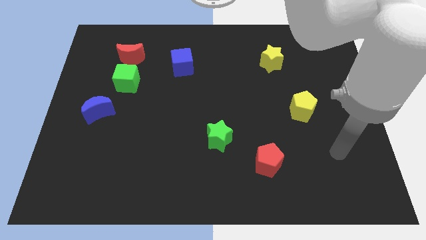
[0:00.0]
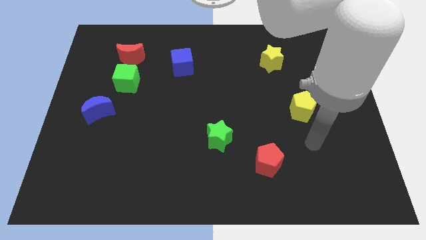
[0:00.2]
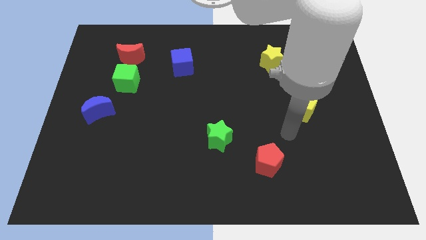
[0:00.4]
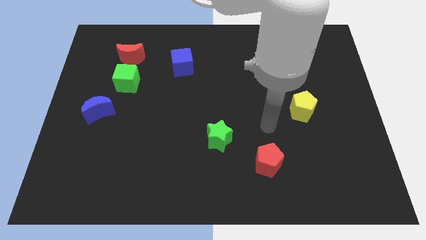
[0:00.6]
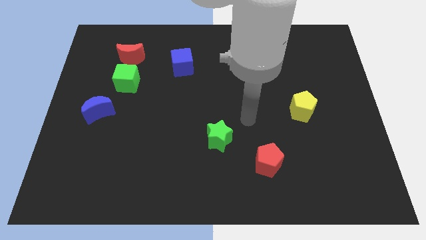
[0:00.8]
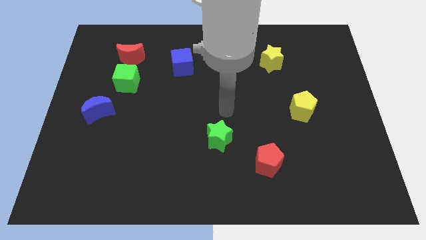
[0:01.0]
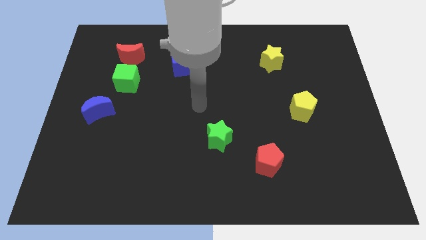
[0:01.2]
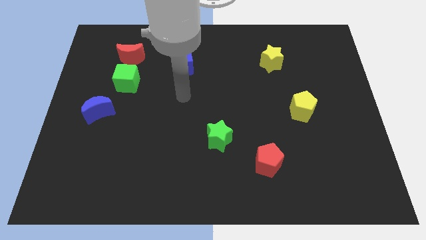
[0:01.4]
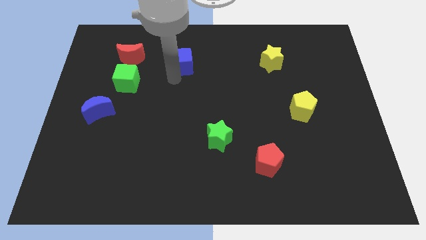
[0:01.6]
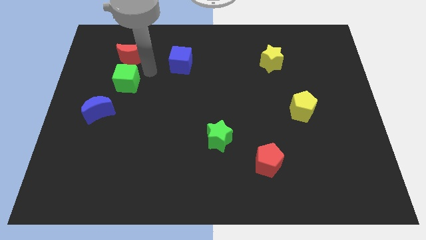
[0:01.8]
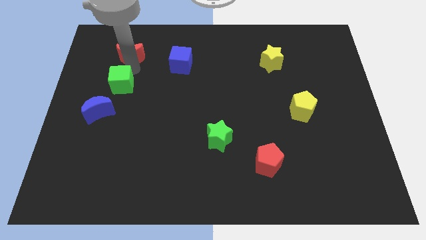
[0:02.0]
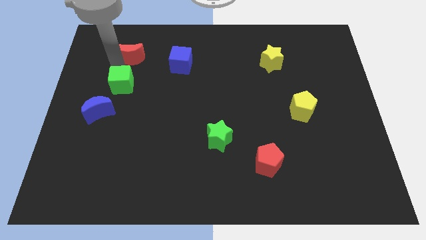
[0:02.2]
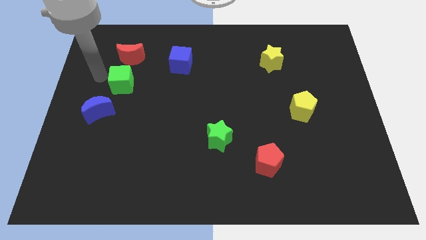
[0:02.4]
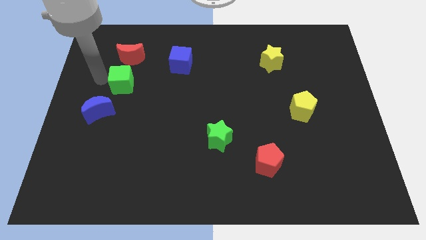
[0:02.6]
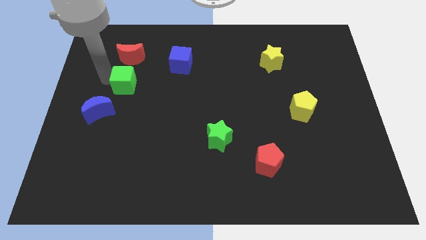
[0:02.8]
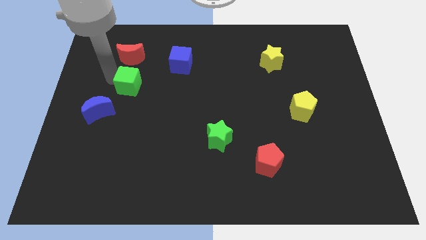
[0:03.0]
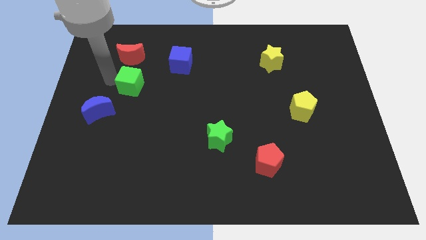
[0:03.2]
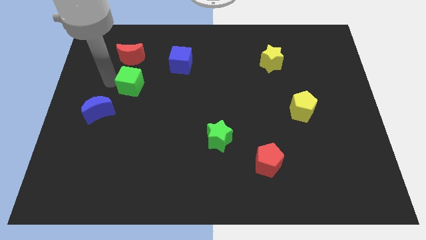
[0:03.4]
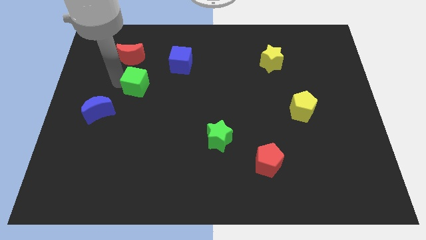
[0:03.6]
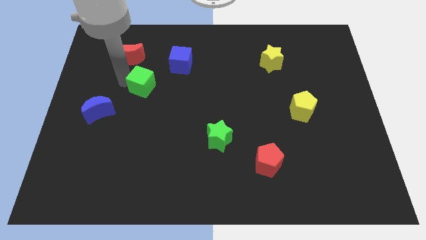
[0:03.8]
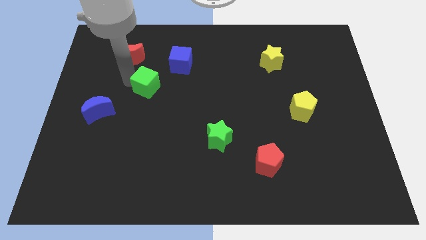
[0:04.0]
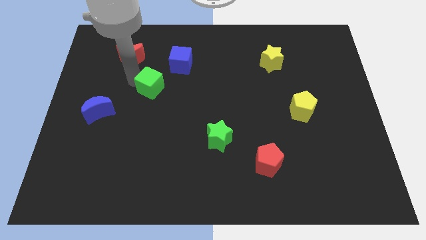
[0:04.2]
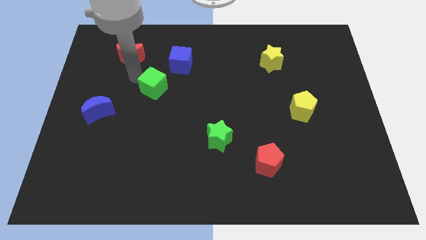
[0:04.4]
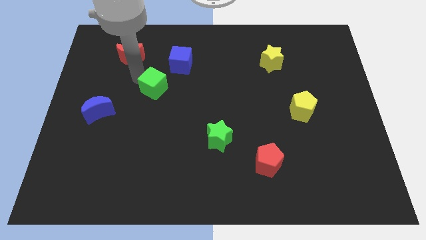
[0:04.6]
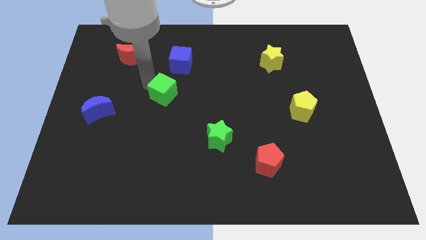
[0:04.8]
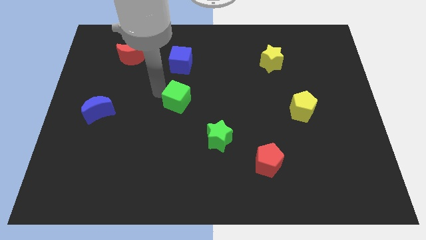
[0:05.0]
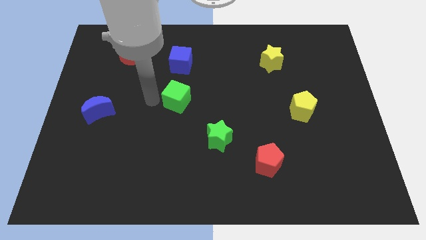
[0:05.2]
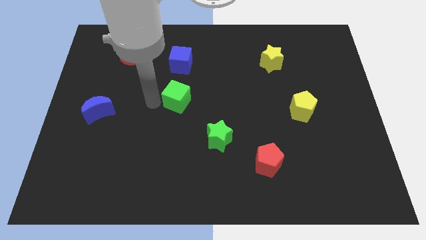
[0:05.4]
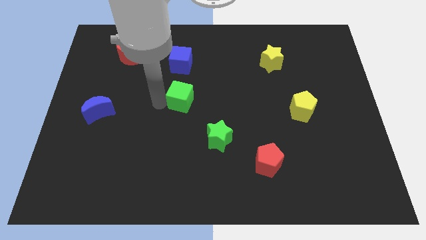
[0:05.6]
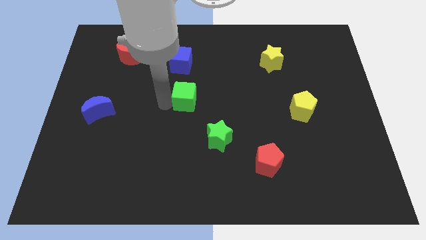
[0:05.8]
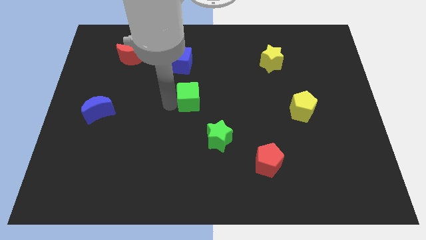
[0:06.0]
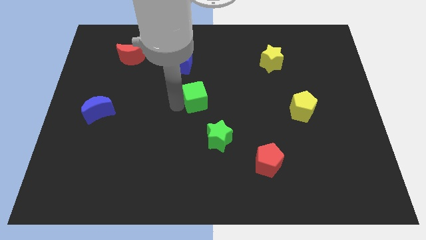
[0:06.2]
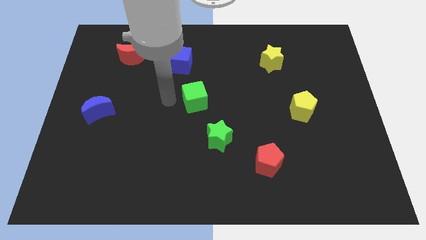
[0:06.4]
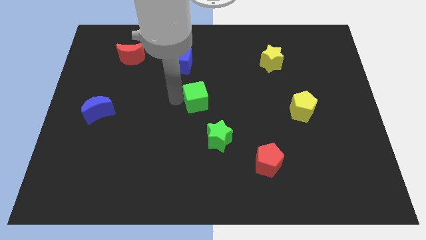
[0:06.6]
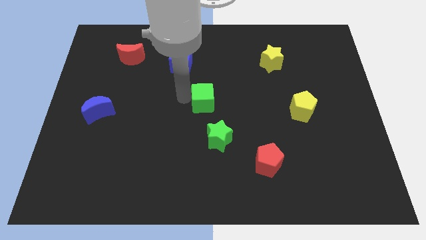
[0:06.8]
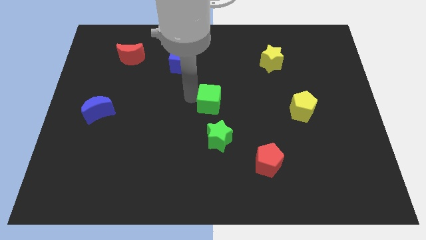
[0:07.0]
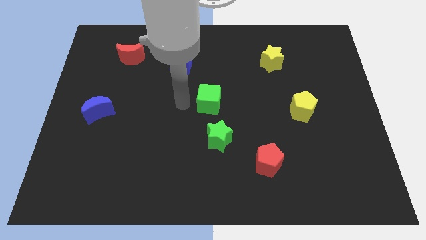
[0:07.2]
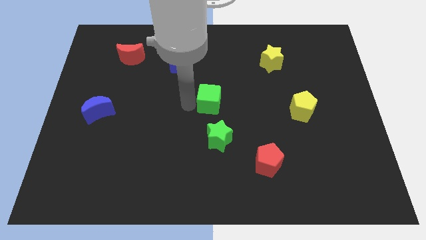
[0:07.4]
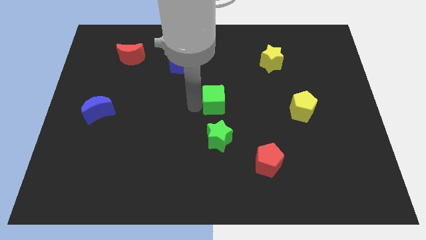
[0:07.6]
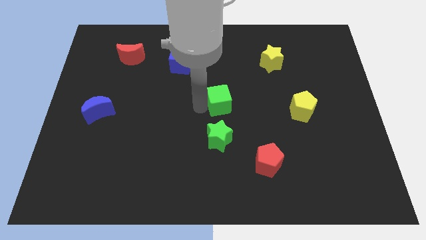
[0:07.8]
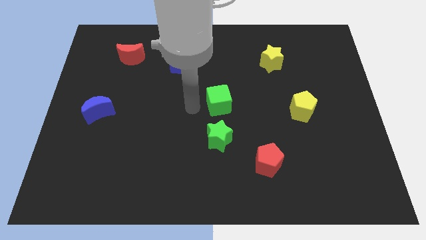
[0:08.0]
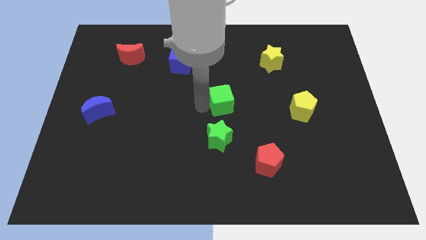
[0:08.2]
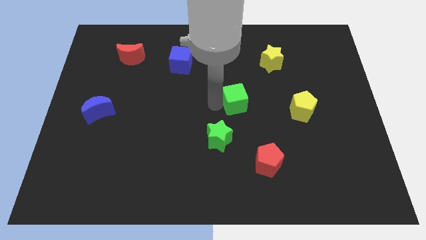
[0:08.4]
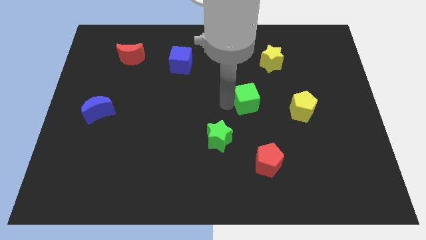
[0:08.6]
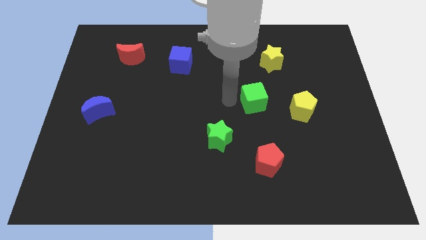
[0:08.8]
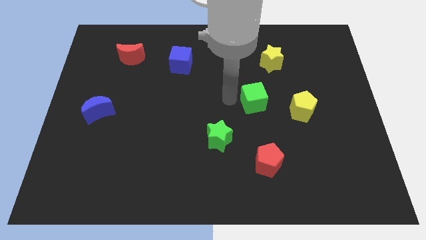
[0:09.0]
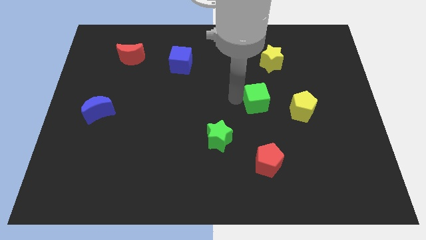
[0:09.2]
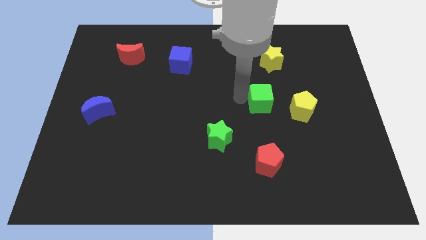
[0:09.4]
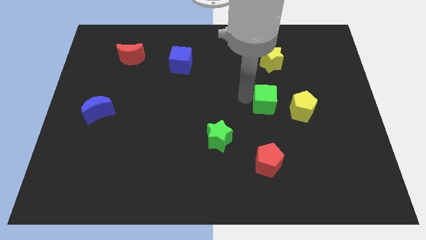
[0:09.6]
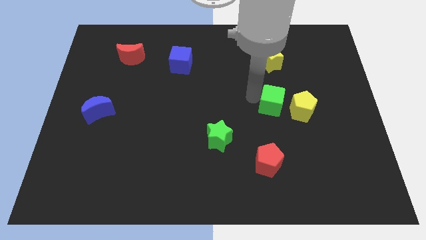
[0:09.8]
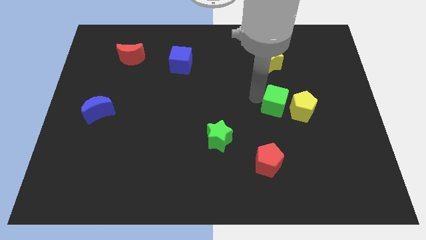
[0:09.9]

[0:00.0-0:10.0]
slide the green cube next to the yellow pentagon

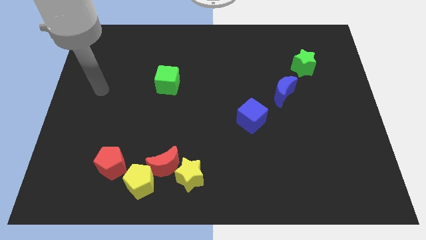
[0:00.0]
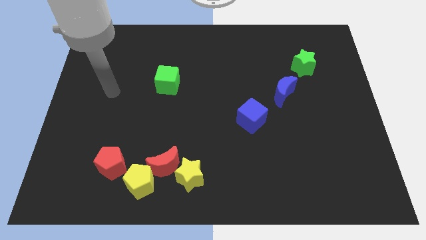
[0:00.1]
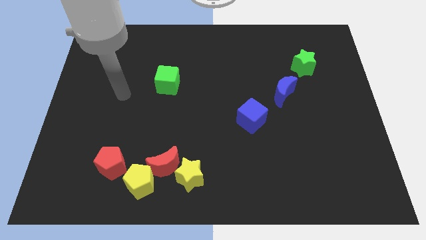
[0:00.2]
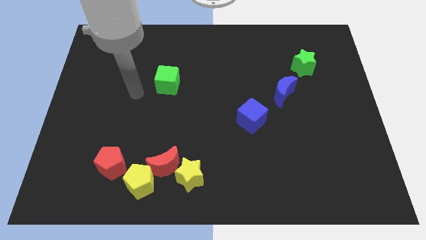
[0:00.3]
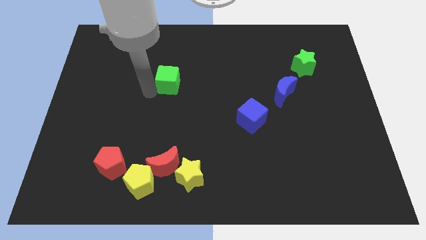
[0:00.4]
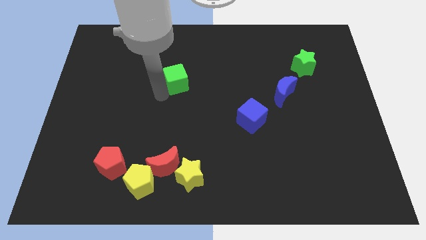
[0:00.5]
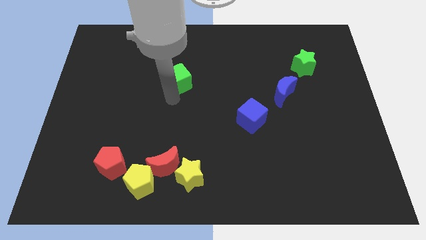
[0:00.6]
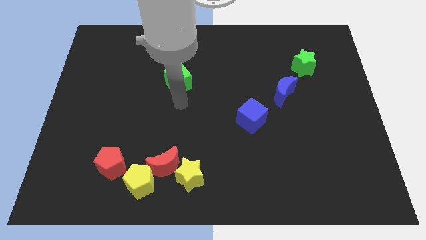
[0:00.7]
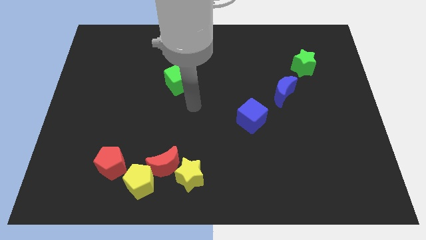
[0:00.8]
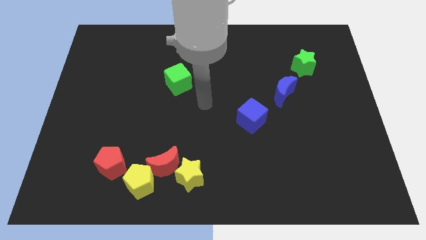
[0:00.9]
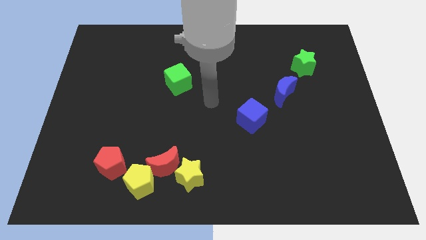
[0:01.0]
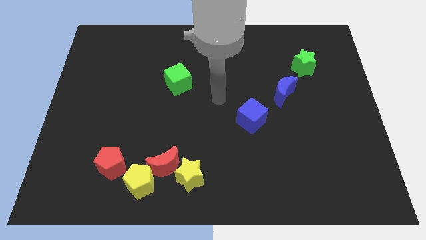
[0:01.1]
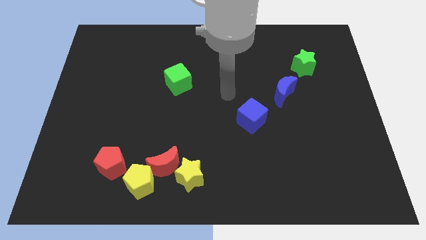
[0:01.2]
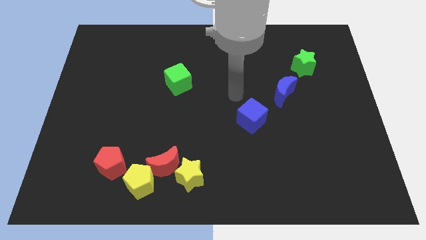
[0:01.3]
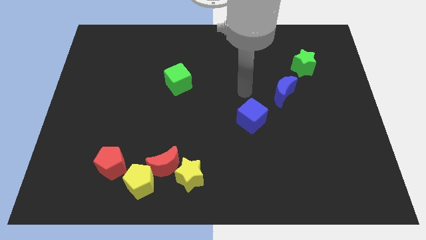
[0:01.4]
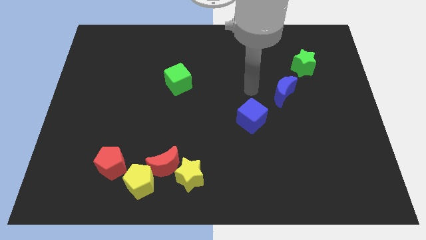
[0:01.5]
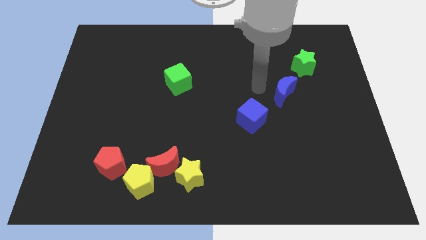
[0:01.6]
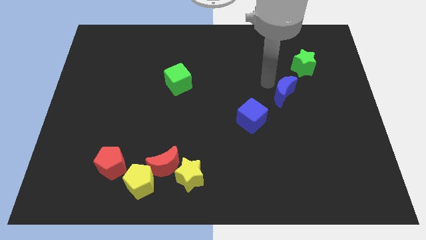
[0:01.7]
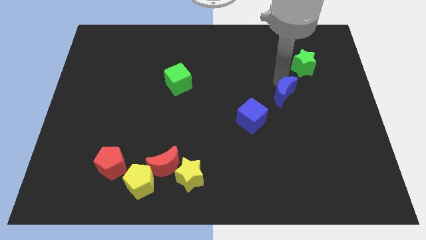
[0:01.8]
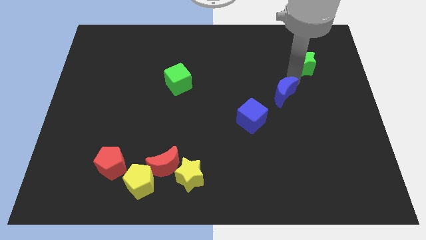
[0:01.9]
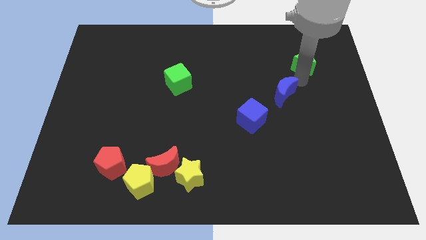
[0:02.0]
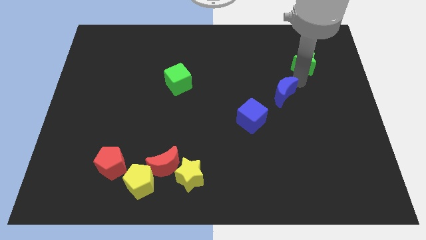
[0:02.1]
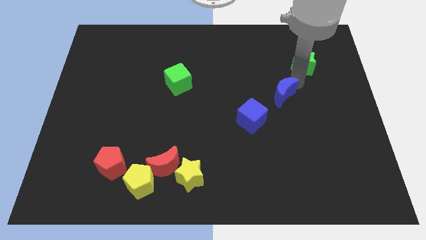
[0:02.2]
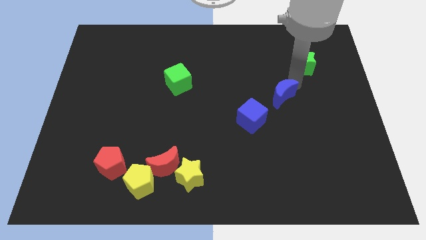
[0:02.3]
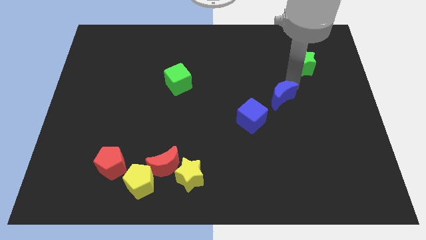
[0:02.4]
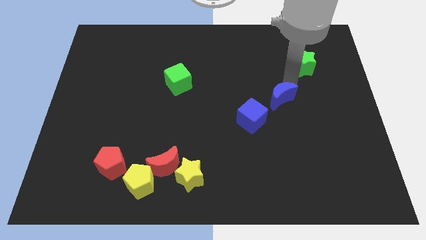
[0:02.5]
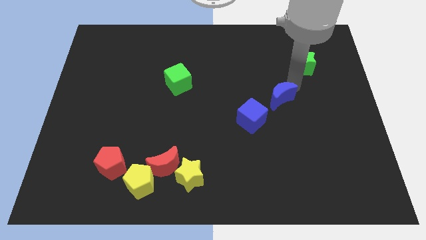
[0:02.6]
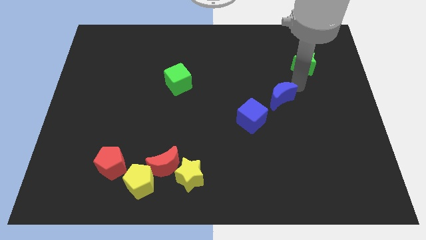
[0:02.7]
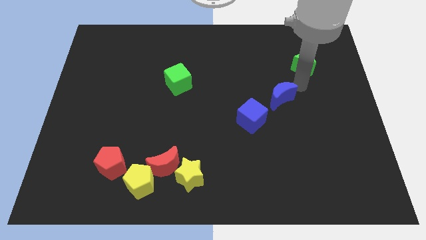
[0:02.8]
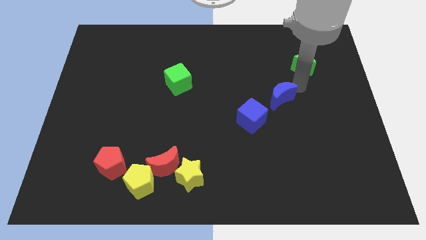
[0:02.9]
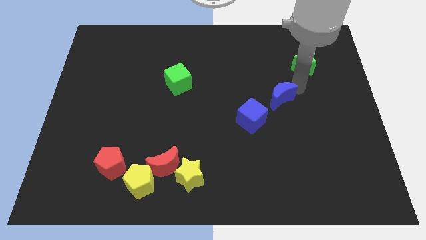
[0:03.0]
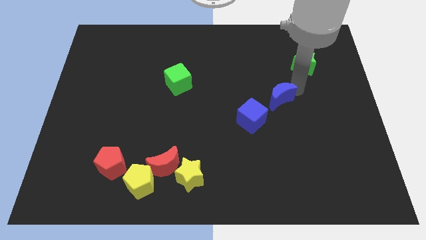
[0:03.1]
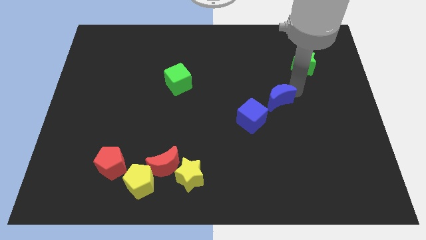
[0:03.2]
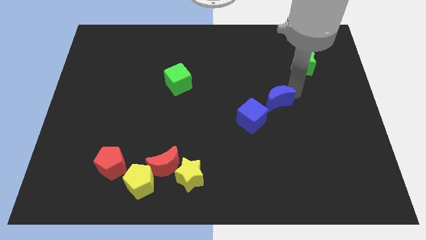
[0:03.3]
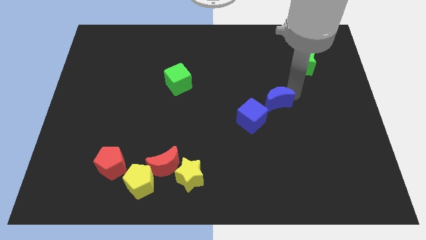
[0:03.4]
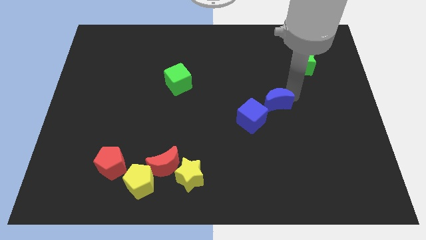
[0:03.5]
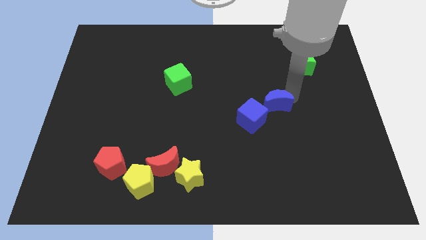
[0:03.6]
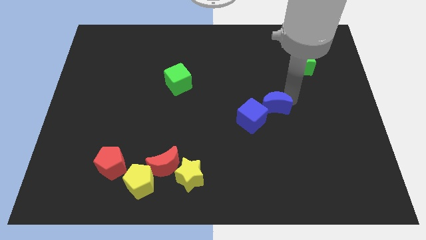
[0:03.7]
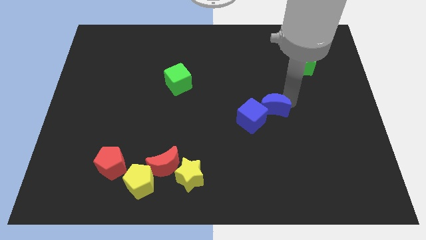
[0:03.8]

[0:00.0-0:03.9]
put the blue moon close to the blue cube
